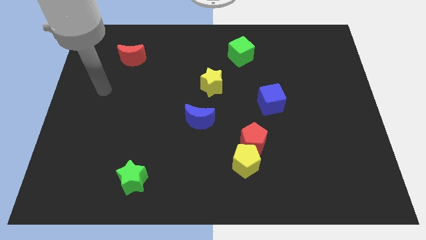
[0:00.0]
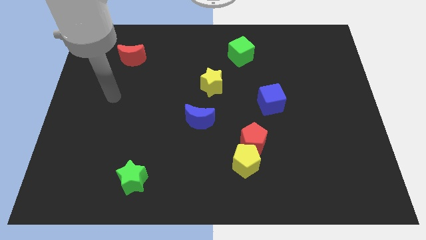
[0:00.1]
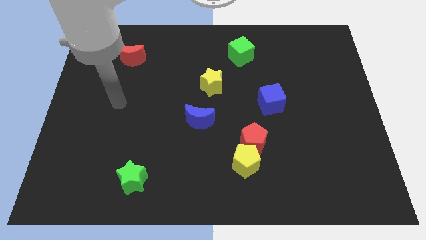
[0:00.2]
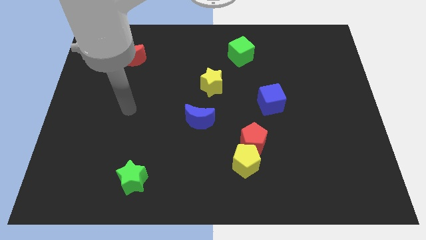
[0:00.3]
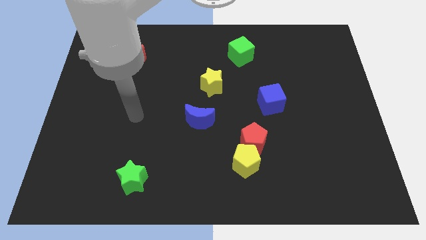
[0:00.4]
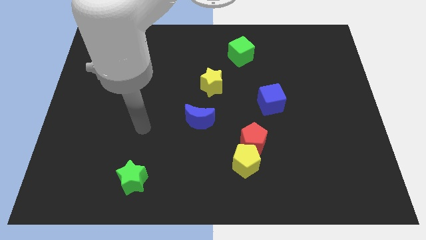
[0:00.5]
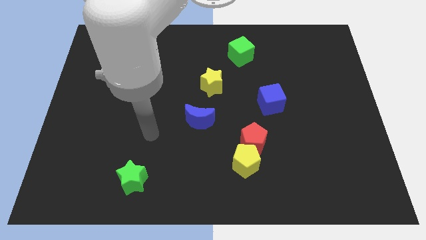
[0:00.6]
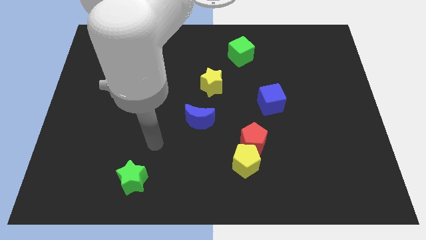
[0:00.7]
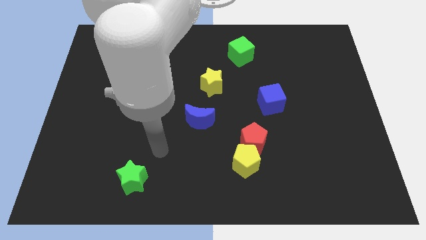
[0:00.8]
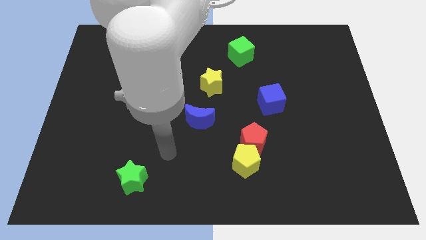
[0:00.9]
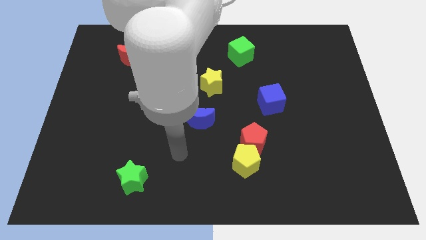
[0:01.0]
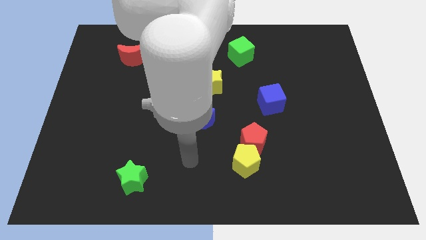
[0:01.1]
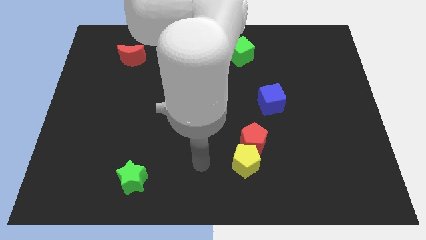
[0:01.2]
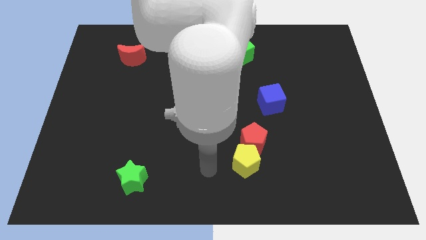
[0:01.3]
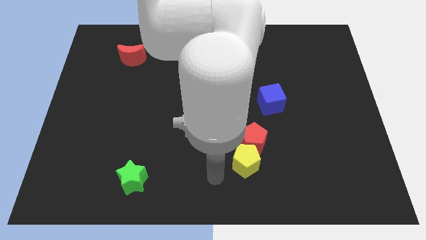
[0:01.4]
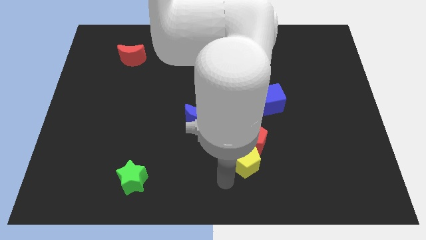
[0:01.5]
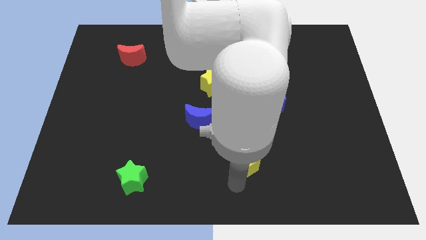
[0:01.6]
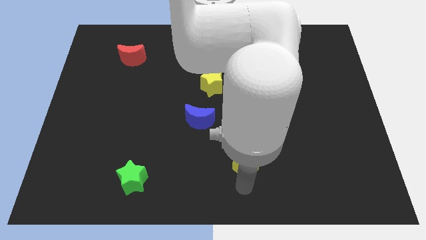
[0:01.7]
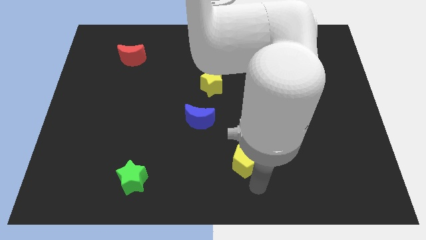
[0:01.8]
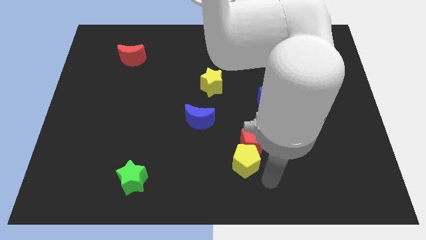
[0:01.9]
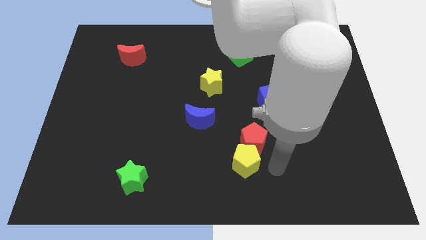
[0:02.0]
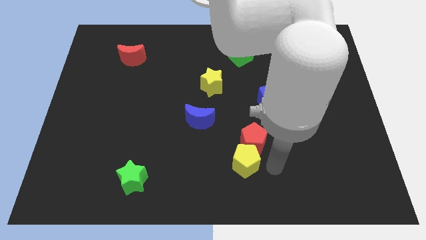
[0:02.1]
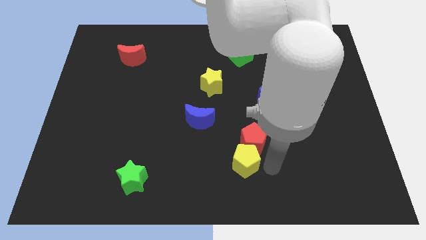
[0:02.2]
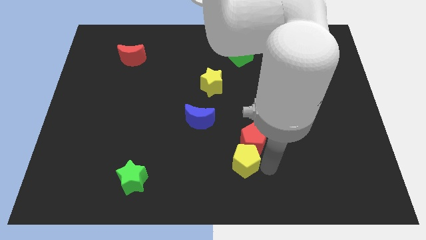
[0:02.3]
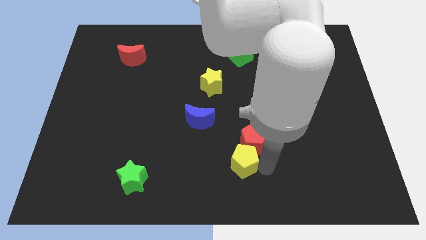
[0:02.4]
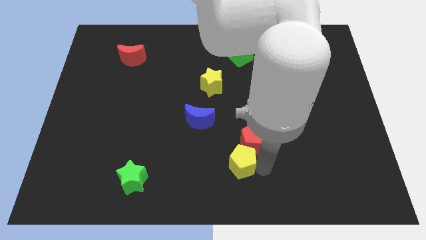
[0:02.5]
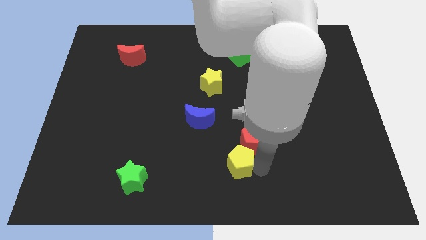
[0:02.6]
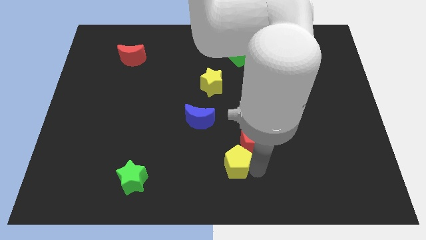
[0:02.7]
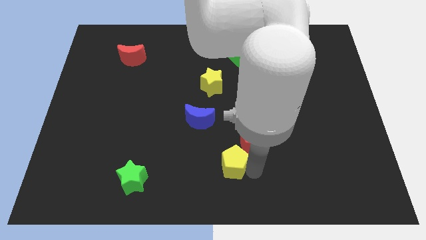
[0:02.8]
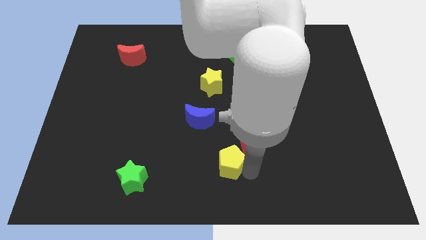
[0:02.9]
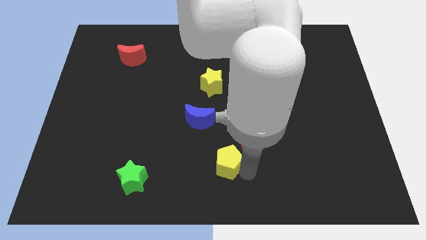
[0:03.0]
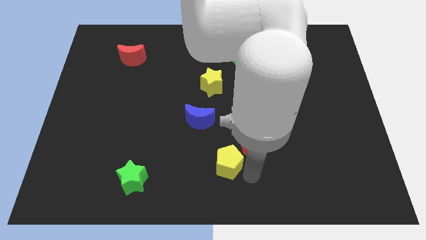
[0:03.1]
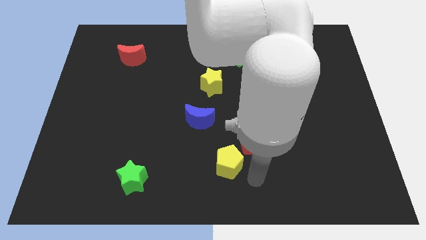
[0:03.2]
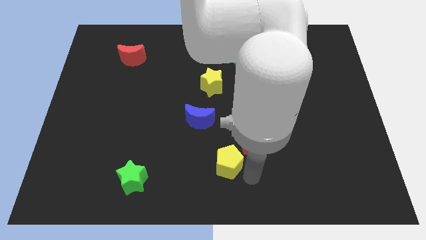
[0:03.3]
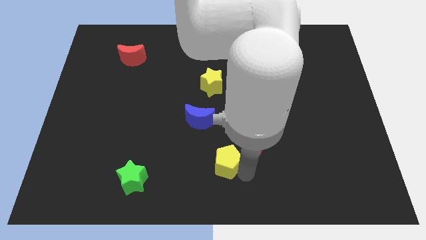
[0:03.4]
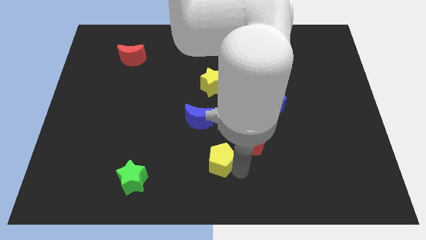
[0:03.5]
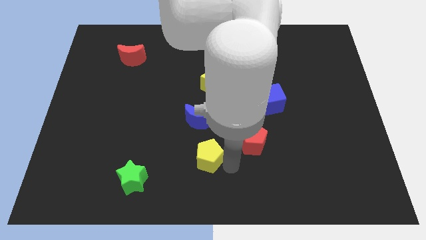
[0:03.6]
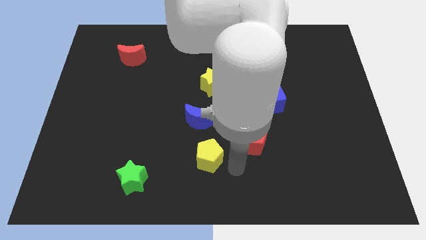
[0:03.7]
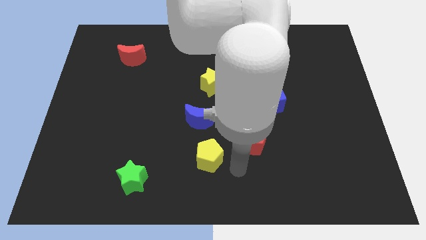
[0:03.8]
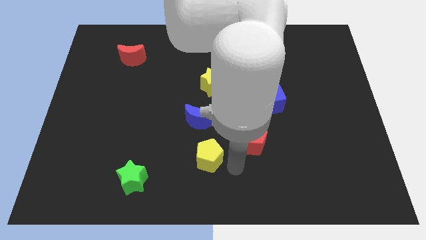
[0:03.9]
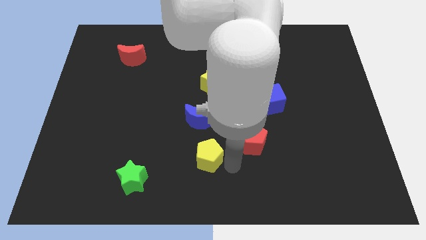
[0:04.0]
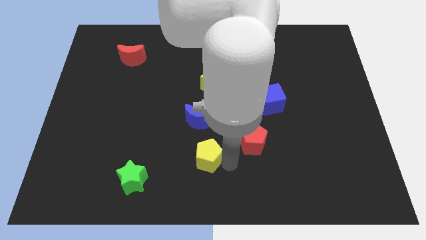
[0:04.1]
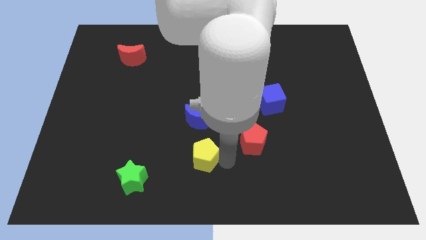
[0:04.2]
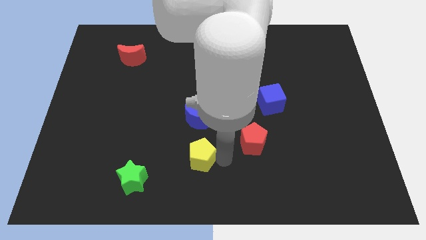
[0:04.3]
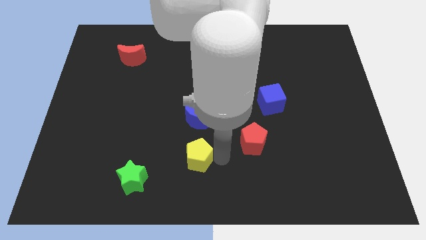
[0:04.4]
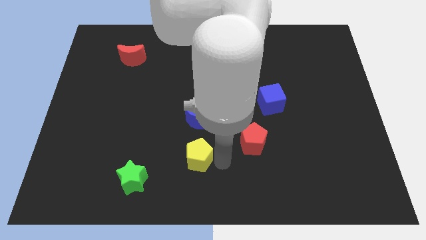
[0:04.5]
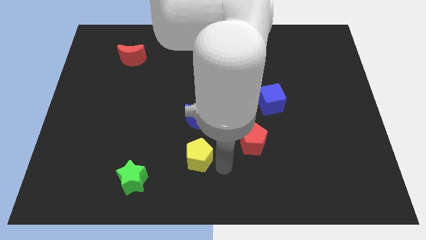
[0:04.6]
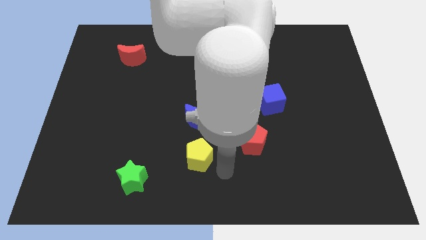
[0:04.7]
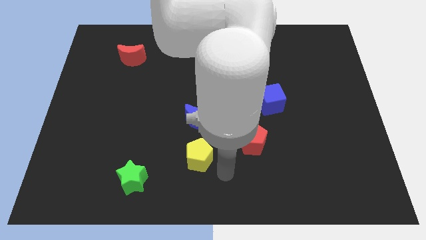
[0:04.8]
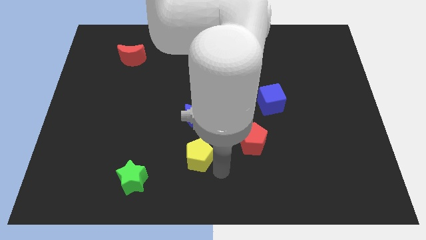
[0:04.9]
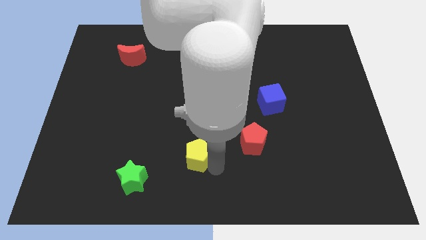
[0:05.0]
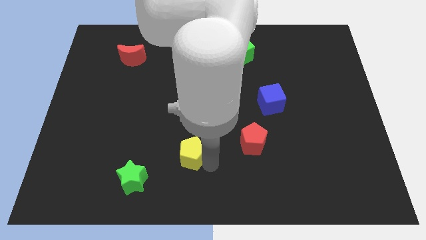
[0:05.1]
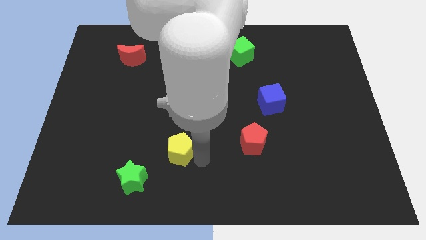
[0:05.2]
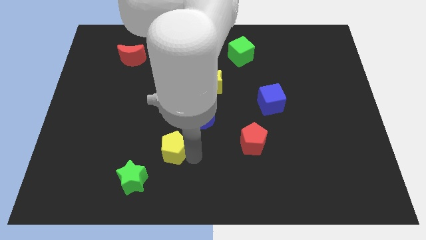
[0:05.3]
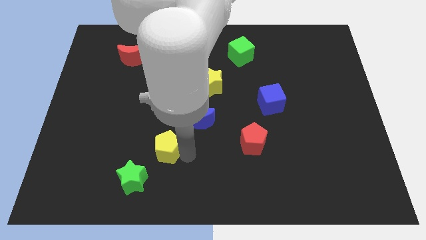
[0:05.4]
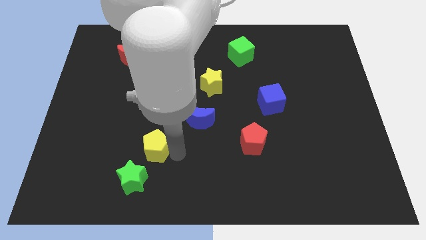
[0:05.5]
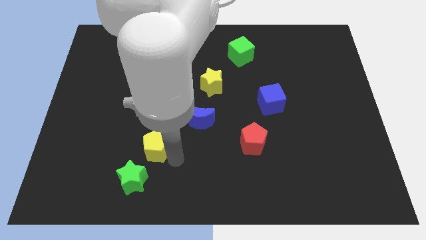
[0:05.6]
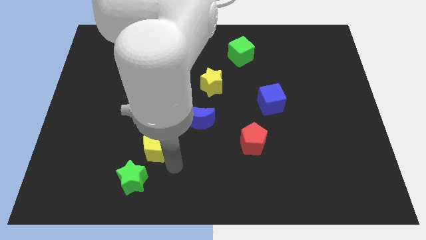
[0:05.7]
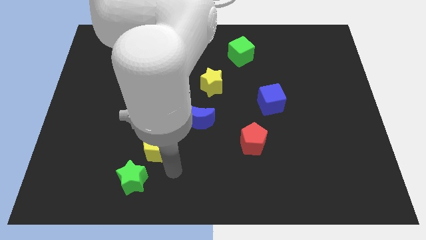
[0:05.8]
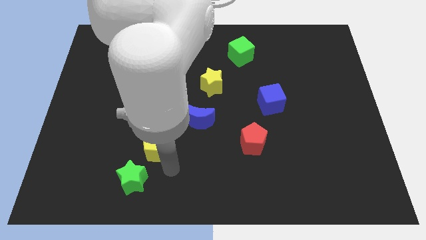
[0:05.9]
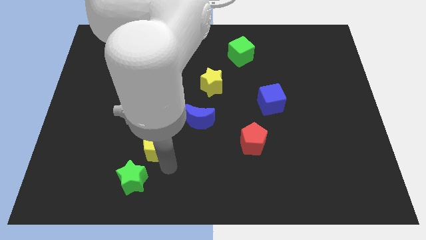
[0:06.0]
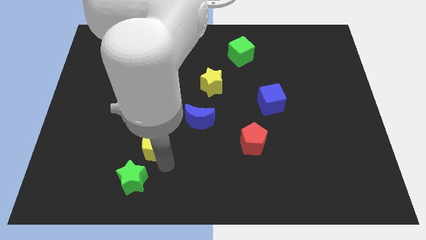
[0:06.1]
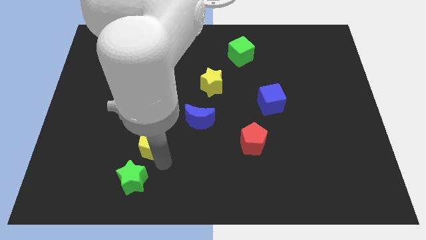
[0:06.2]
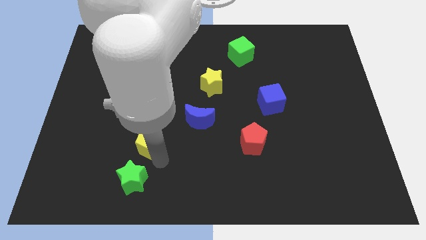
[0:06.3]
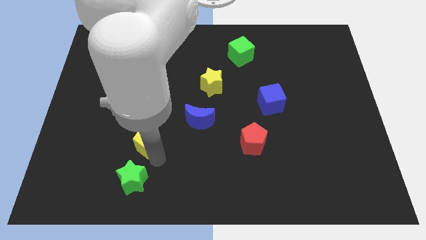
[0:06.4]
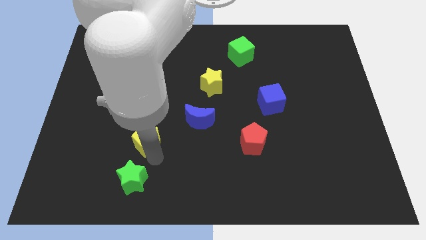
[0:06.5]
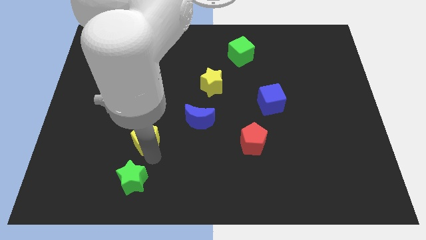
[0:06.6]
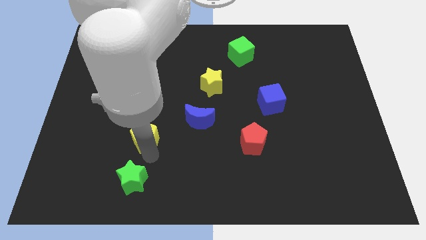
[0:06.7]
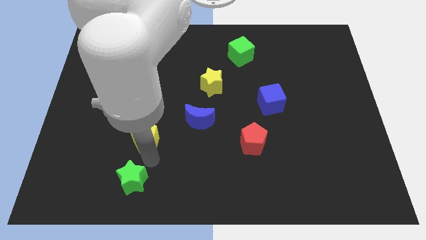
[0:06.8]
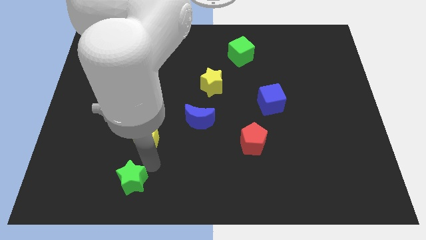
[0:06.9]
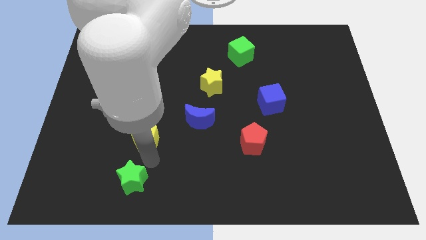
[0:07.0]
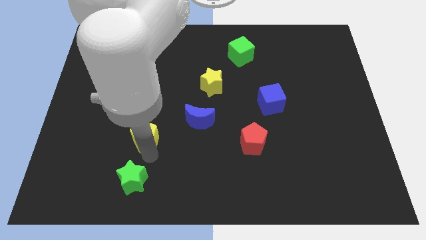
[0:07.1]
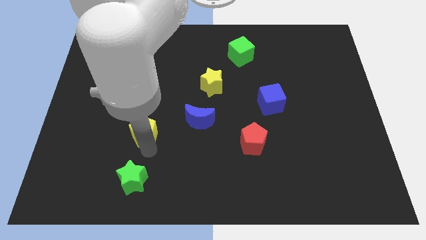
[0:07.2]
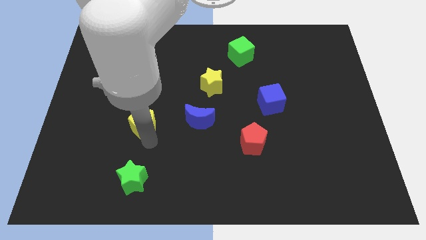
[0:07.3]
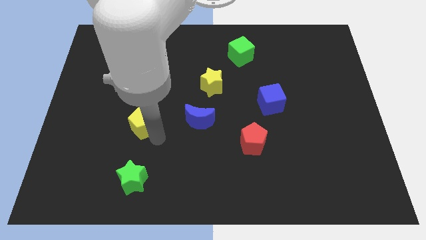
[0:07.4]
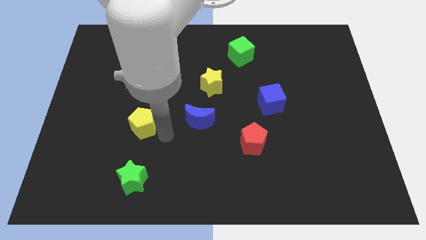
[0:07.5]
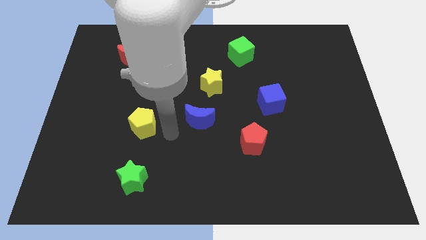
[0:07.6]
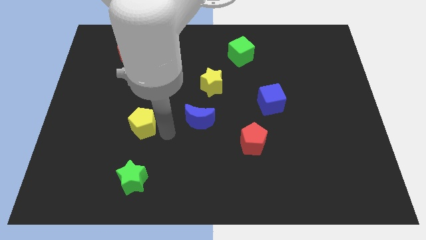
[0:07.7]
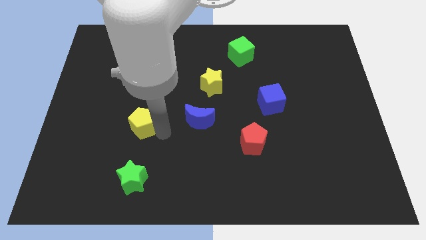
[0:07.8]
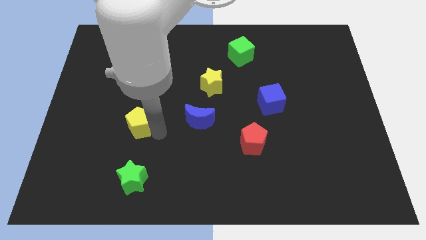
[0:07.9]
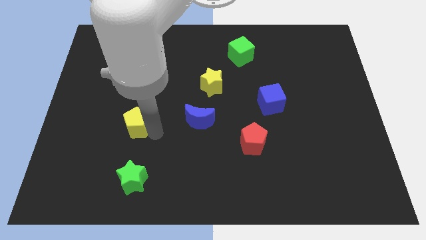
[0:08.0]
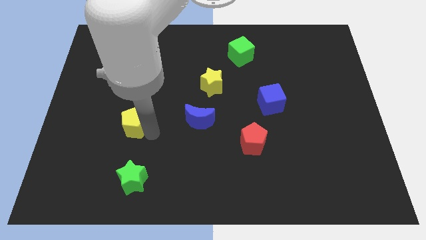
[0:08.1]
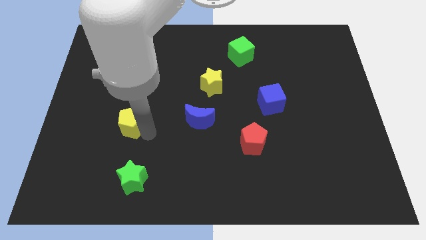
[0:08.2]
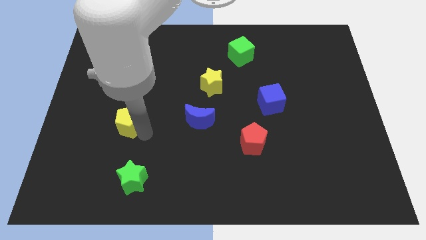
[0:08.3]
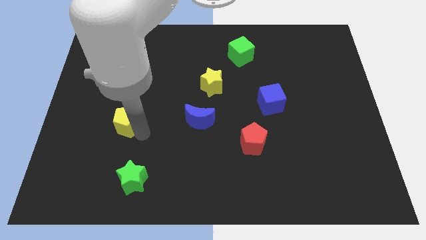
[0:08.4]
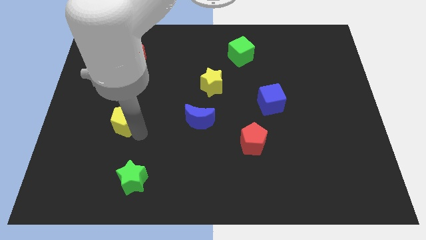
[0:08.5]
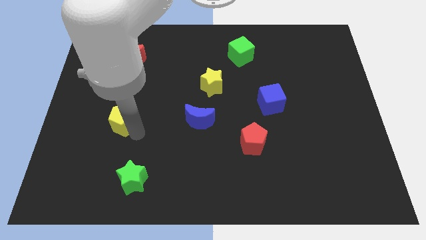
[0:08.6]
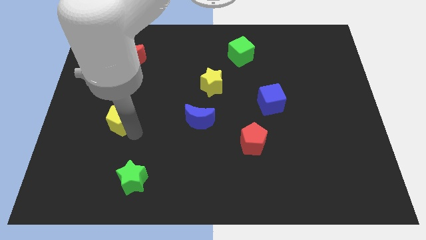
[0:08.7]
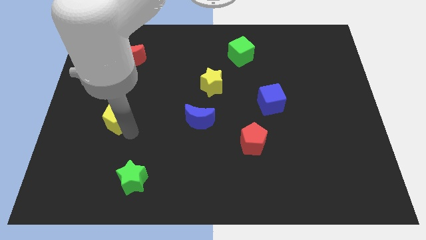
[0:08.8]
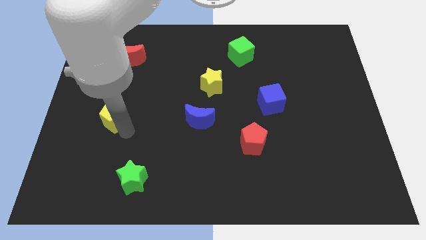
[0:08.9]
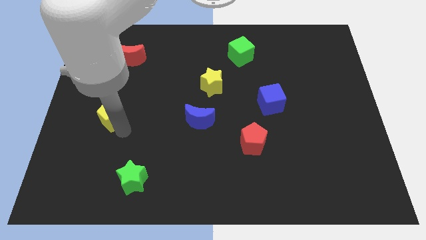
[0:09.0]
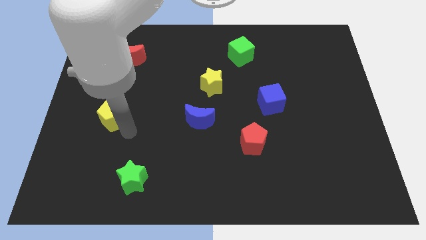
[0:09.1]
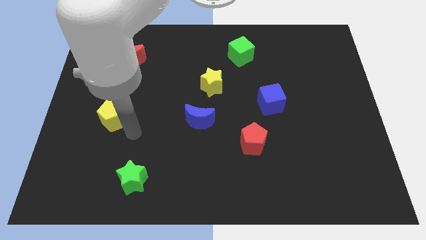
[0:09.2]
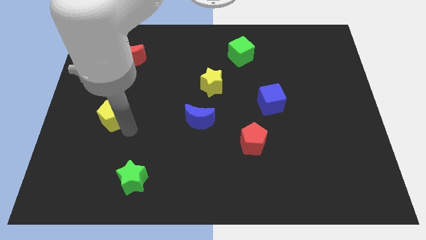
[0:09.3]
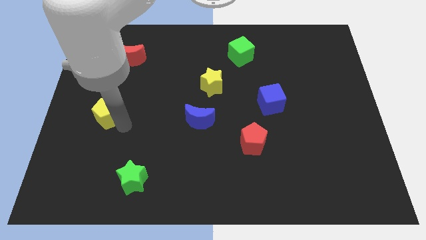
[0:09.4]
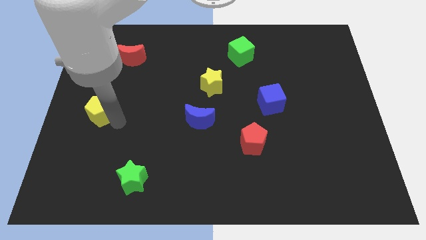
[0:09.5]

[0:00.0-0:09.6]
move the yellow pentagon to the left side
